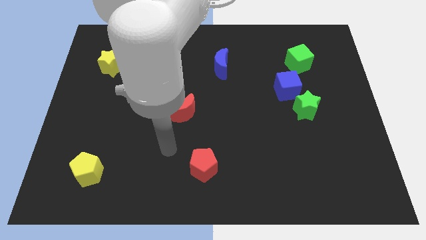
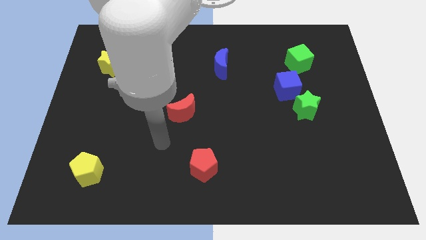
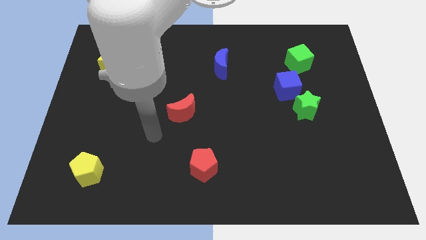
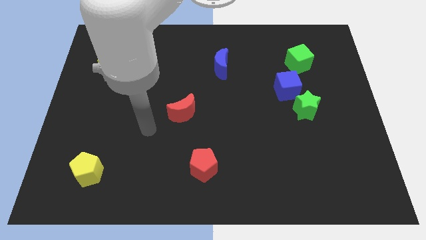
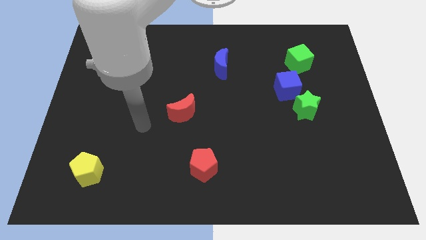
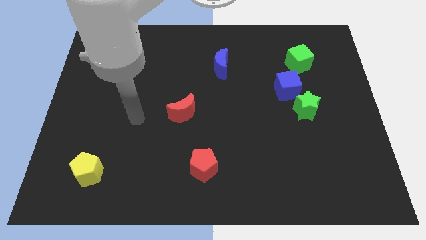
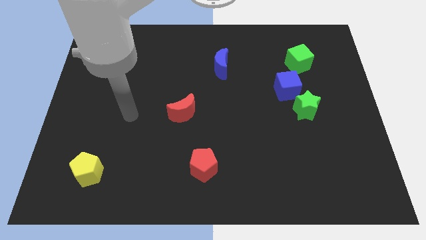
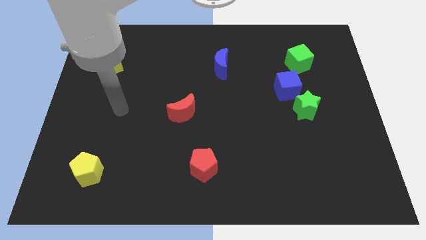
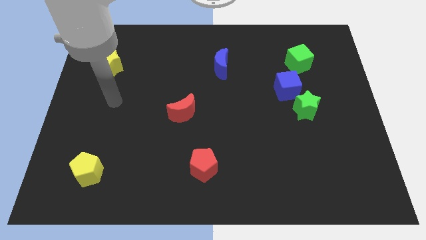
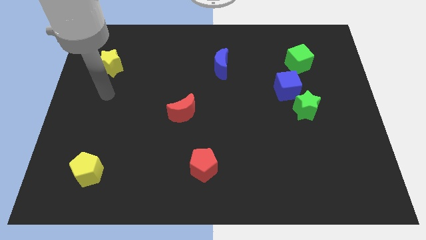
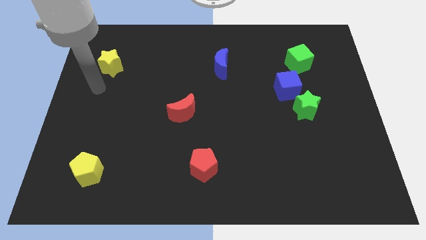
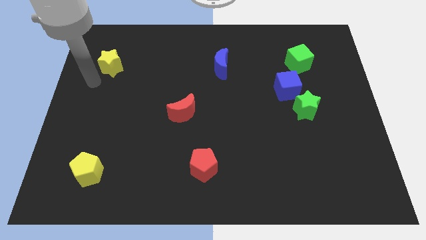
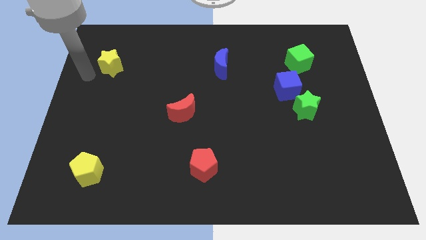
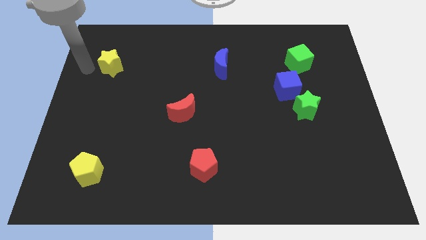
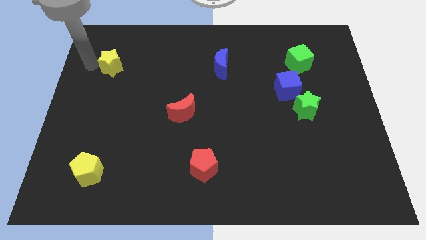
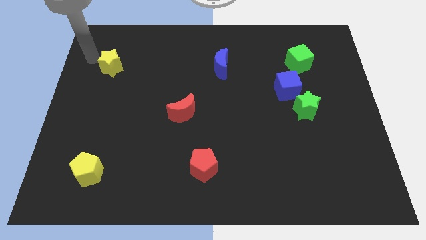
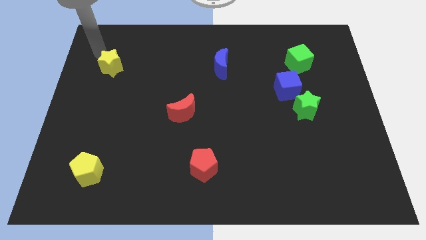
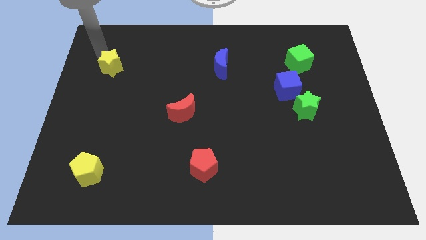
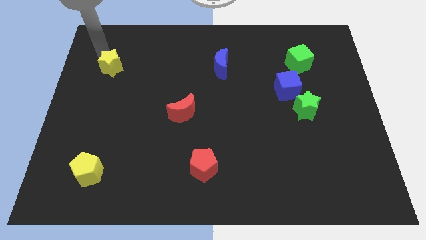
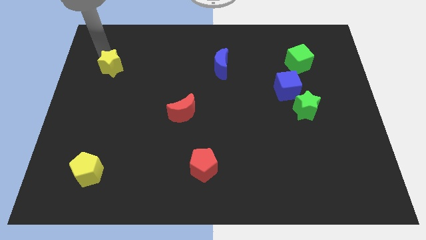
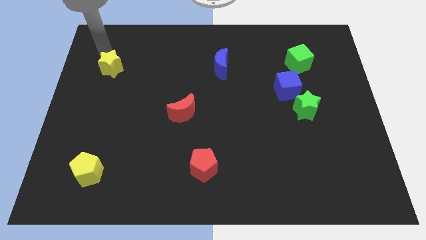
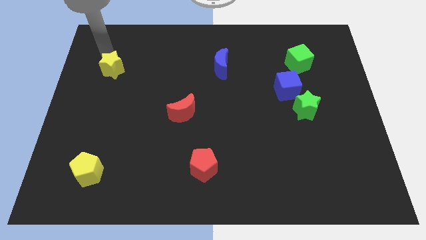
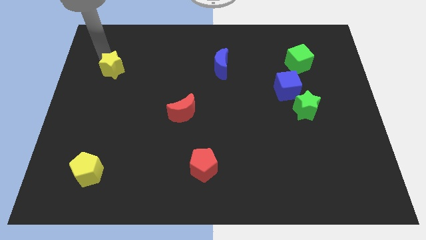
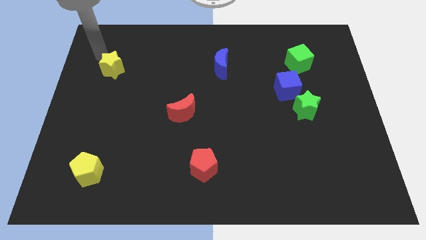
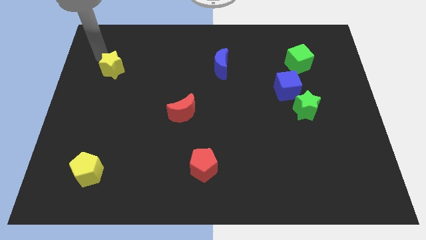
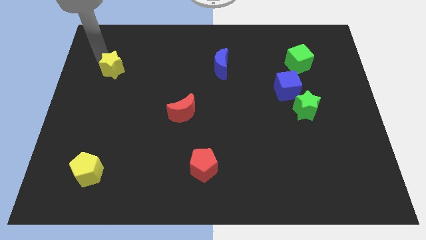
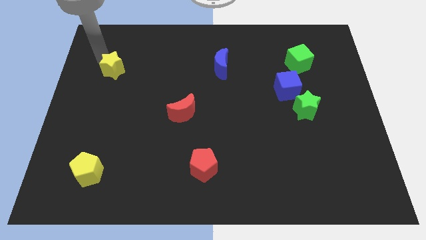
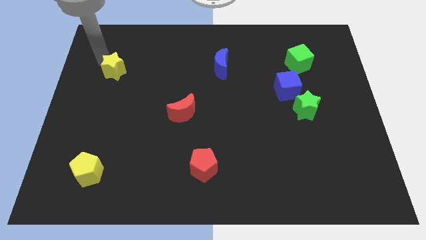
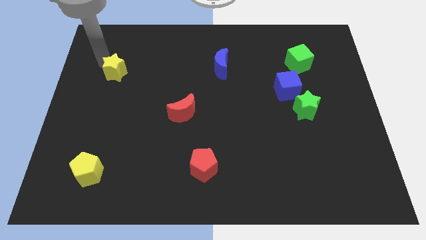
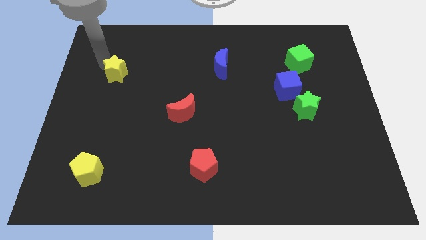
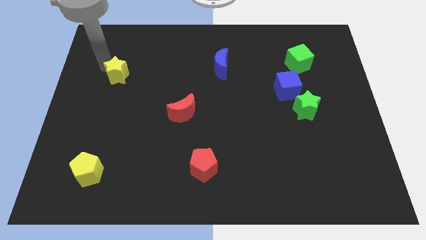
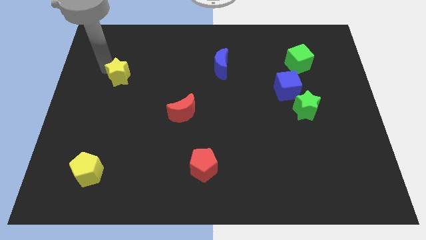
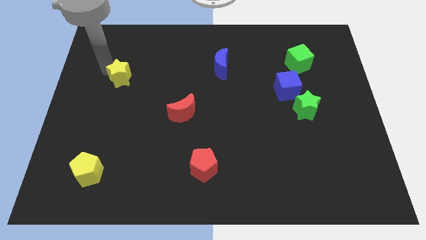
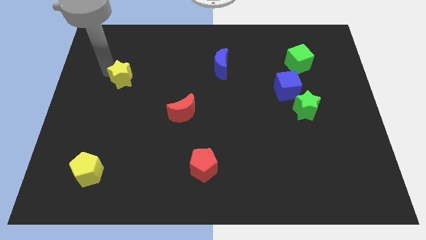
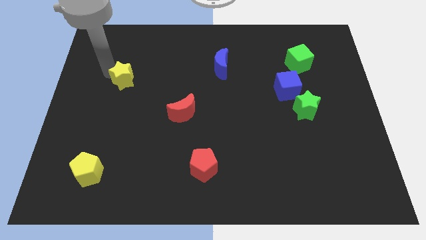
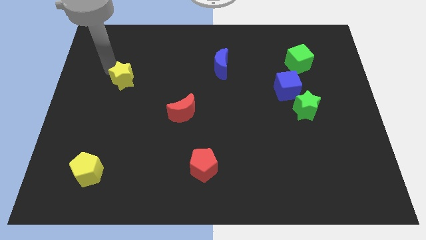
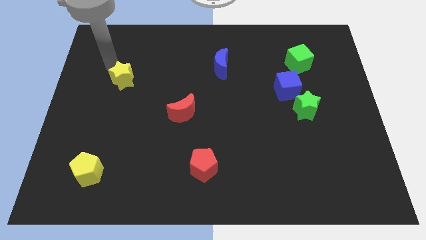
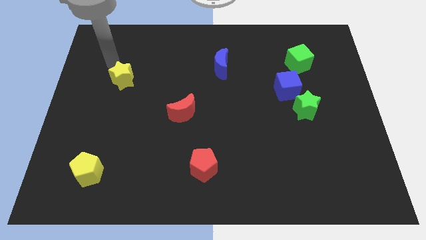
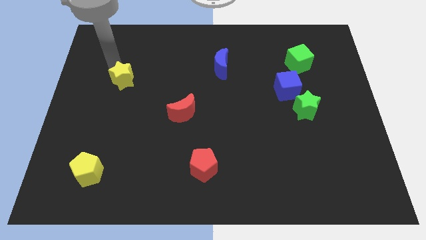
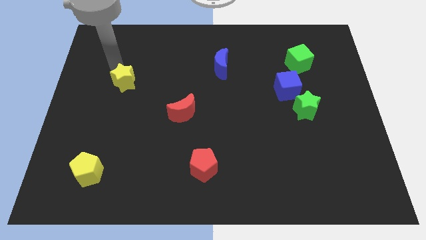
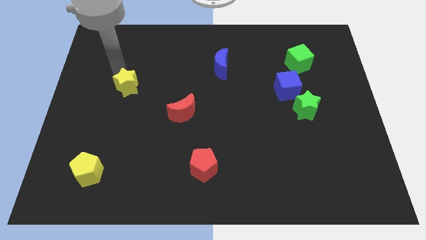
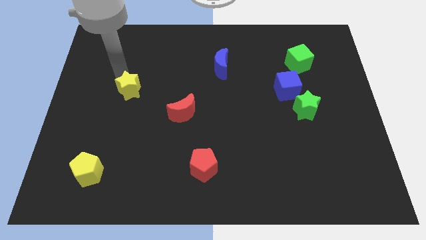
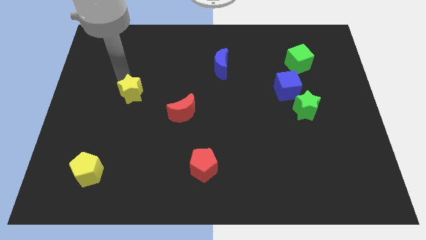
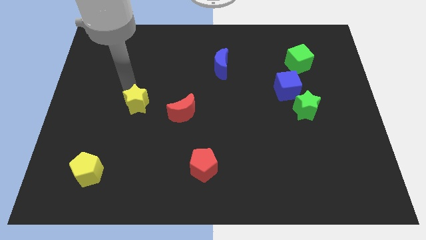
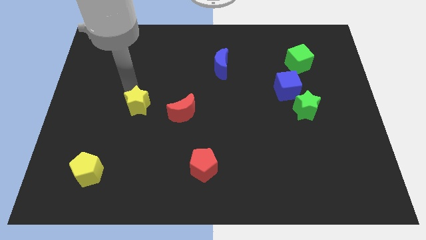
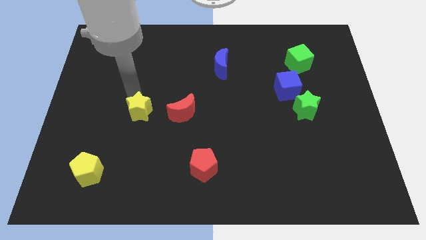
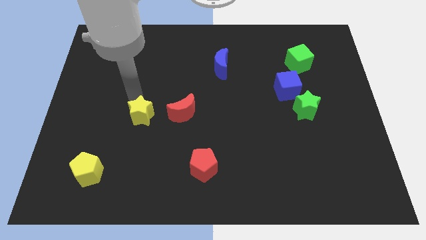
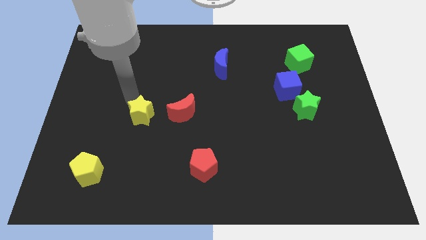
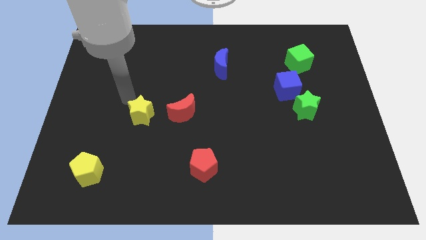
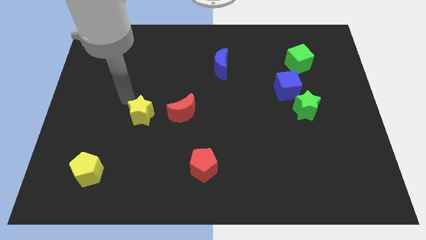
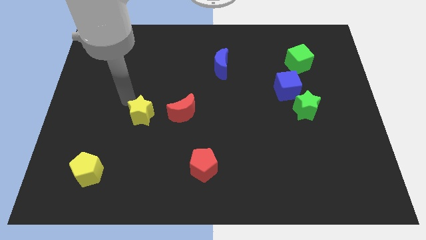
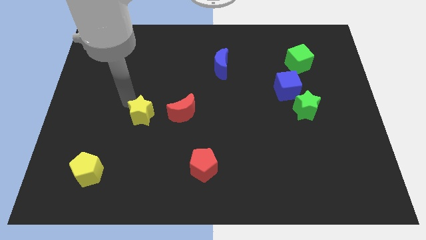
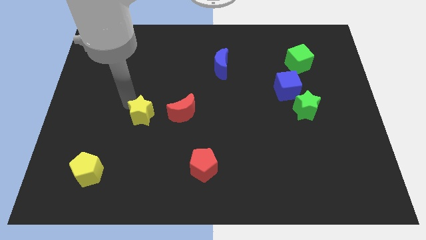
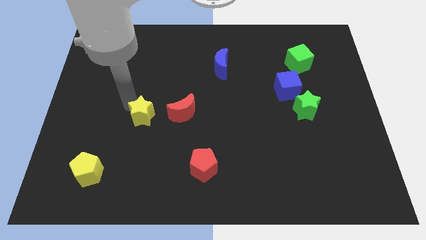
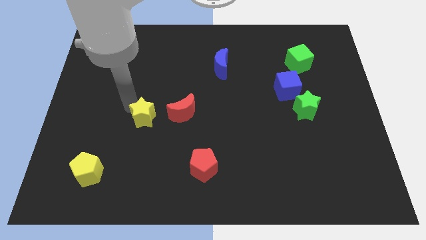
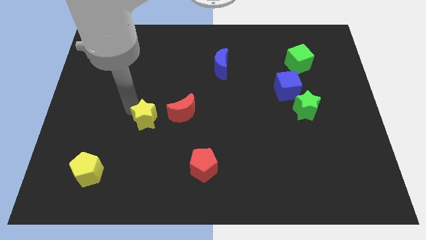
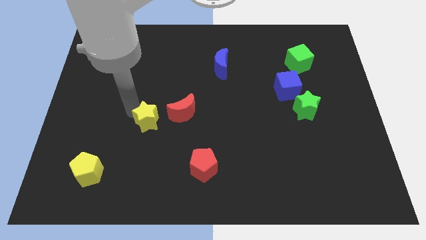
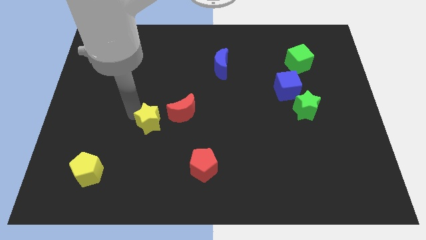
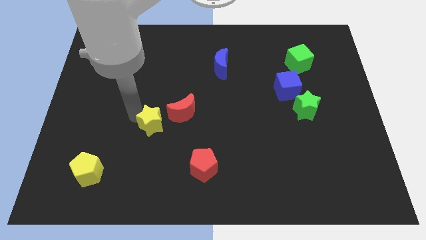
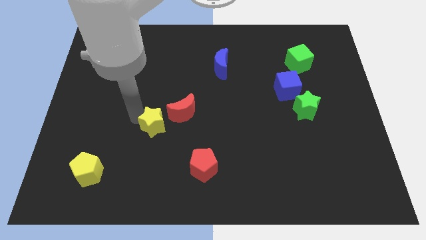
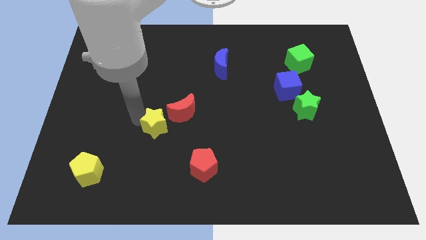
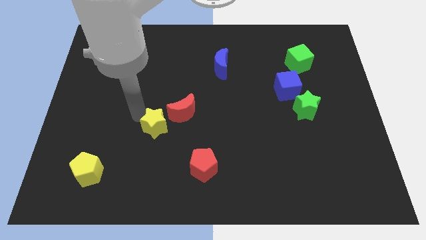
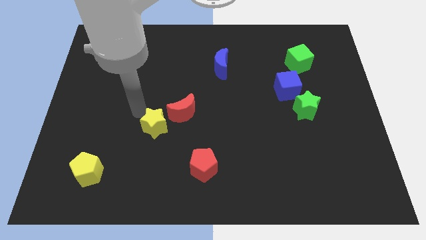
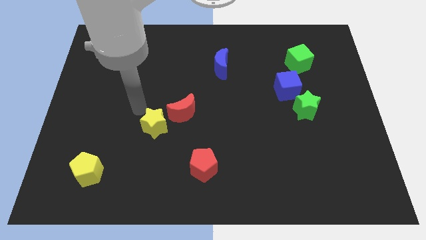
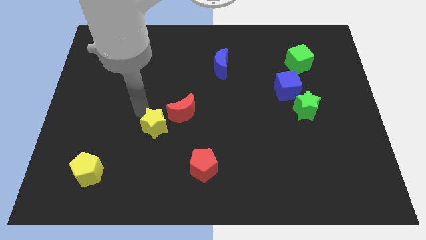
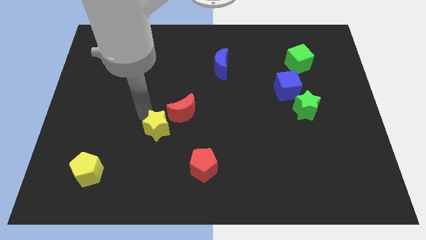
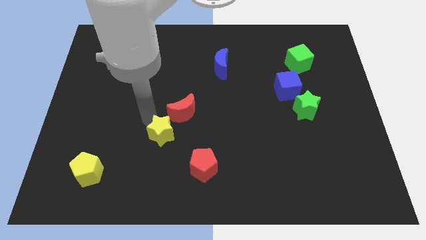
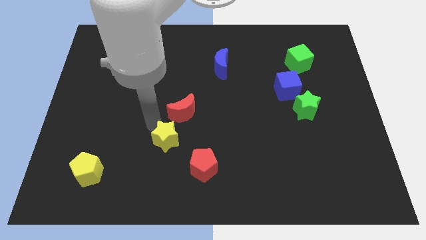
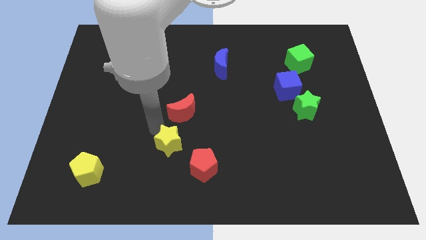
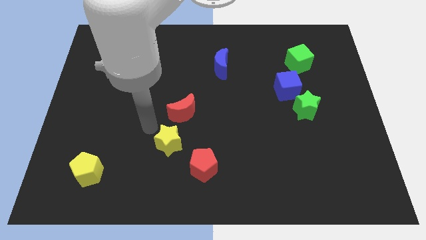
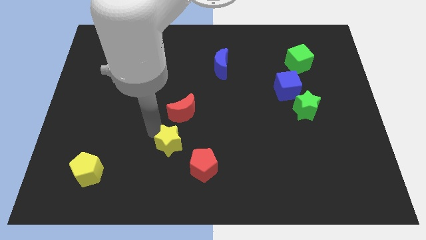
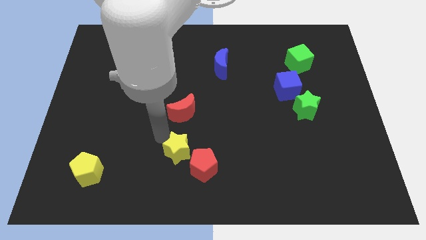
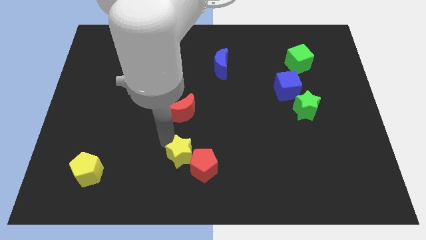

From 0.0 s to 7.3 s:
push the yellow star next to the red pentagon

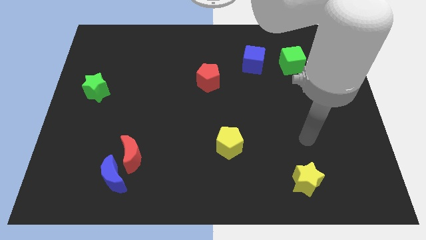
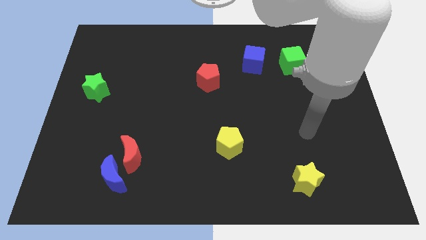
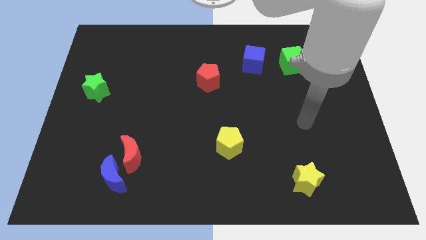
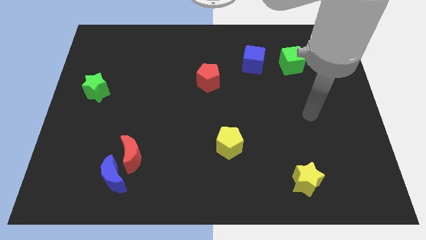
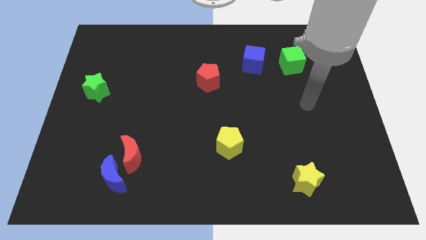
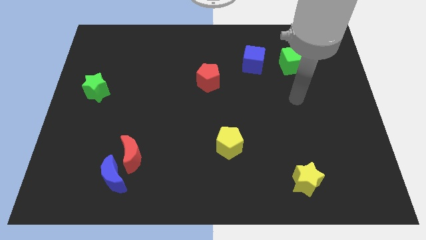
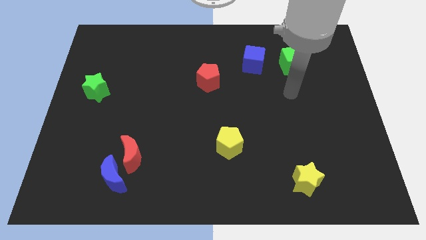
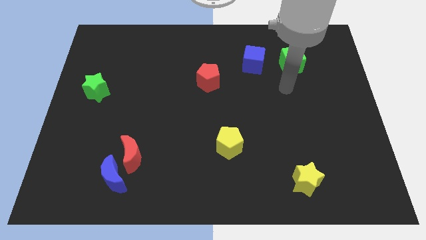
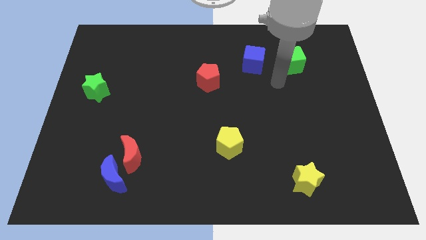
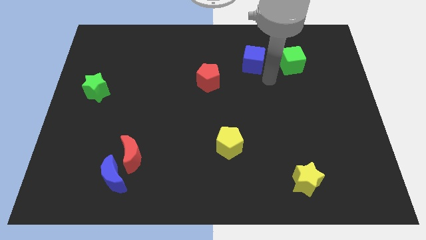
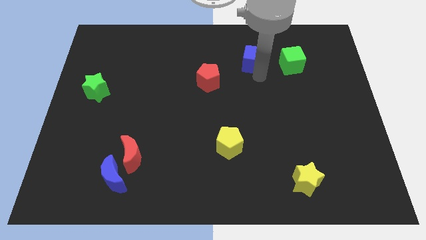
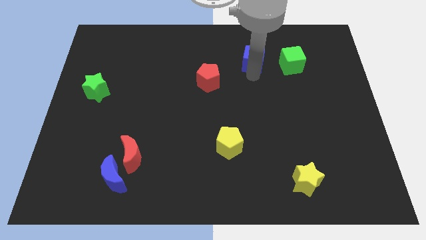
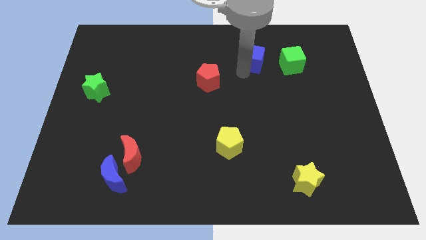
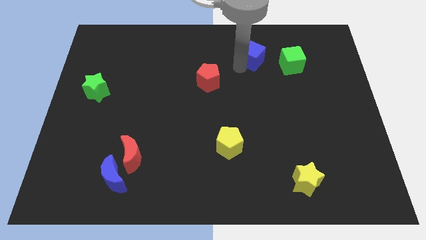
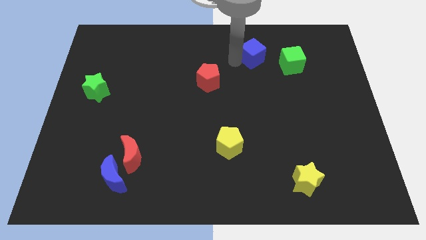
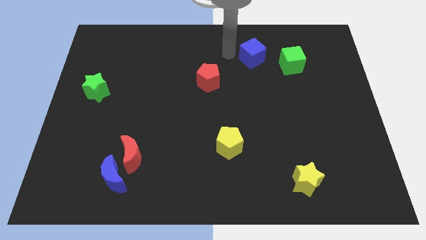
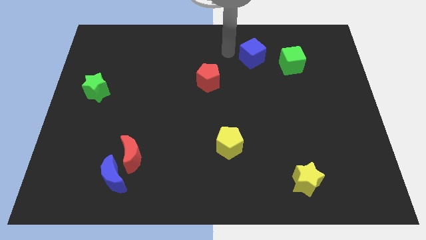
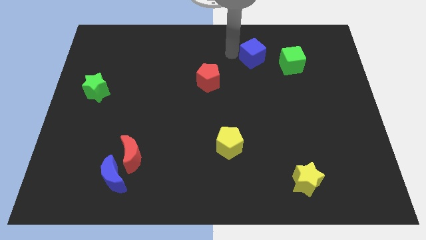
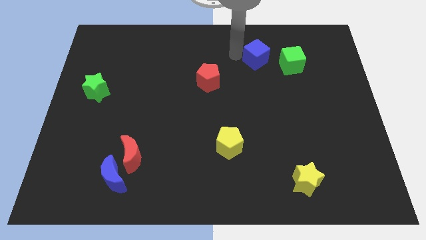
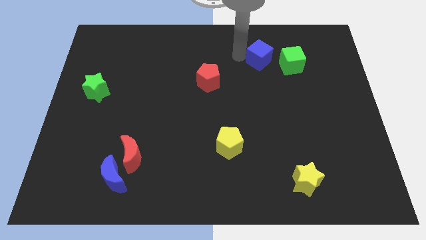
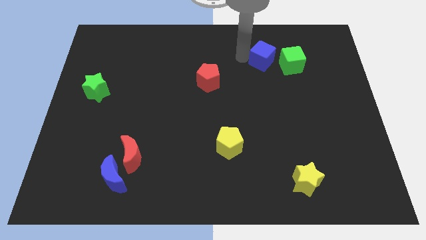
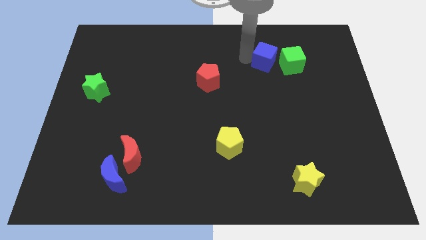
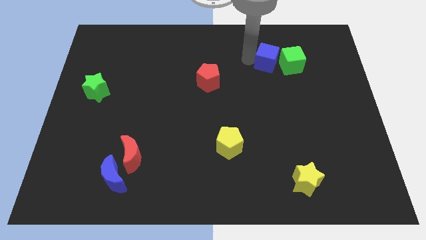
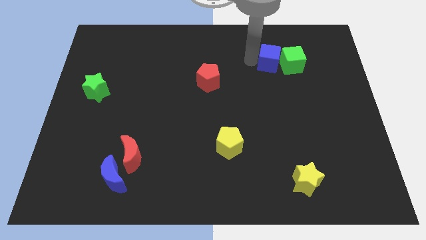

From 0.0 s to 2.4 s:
slide the blue cube close to the green cube
